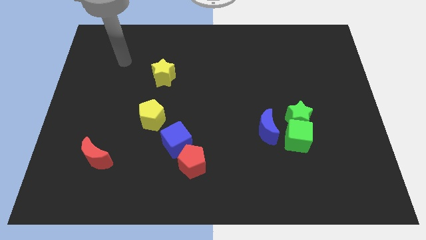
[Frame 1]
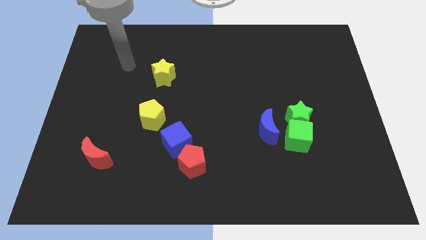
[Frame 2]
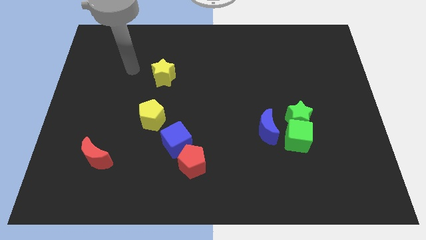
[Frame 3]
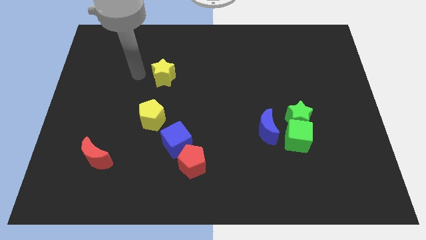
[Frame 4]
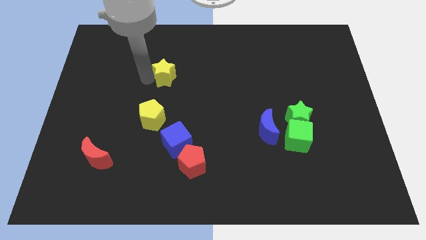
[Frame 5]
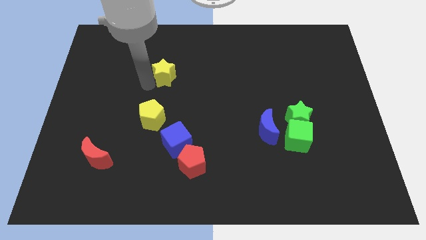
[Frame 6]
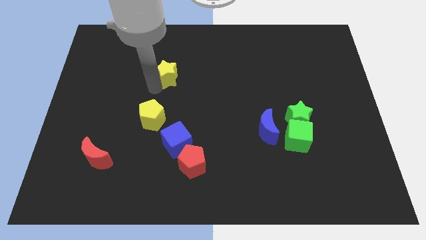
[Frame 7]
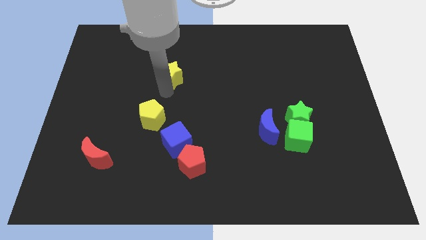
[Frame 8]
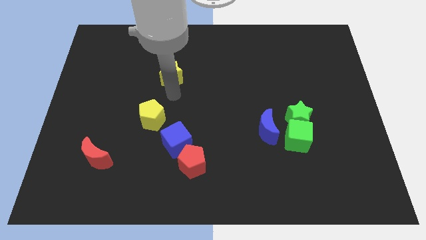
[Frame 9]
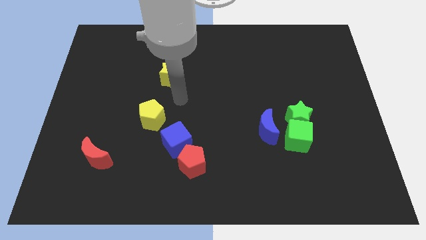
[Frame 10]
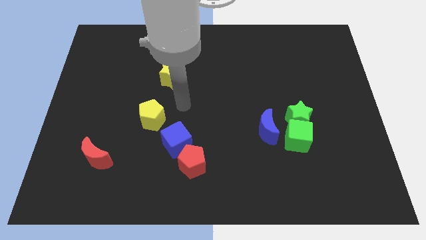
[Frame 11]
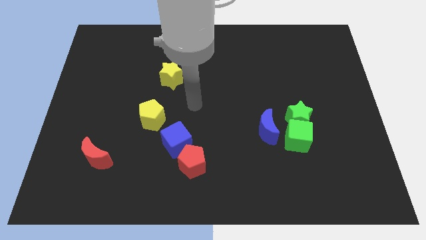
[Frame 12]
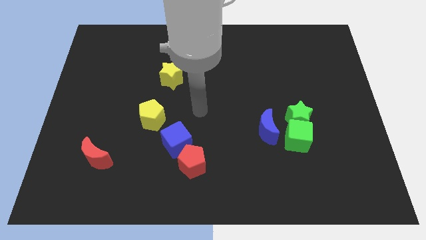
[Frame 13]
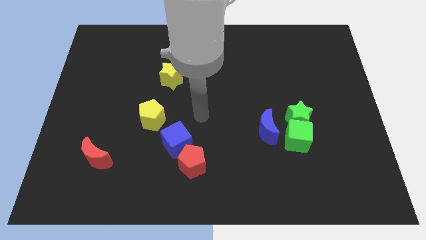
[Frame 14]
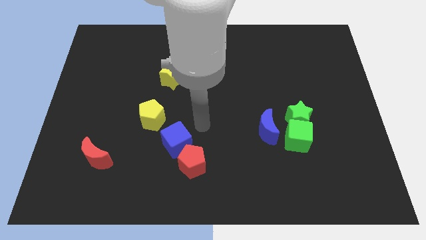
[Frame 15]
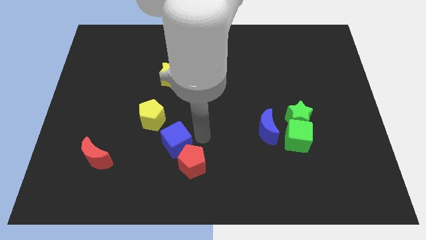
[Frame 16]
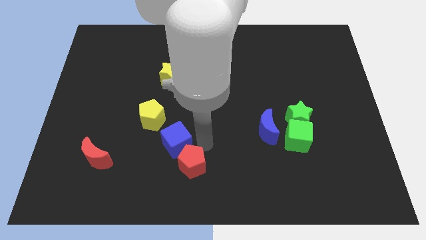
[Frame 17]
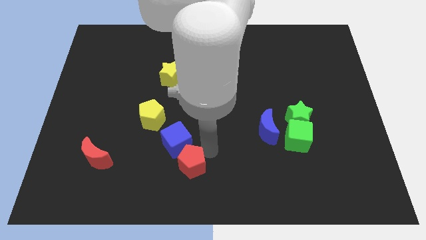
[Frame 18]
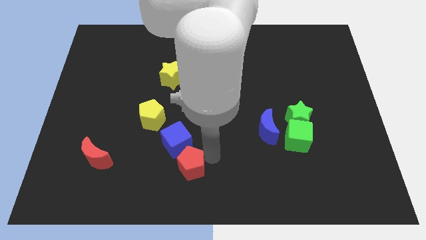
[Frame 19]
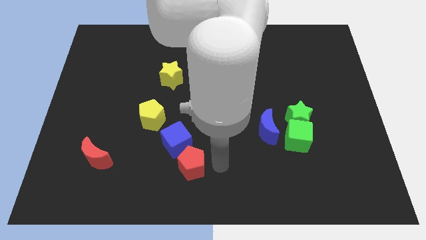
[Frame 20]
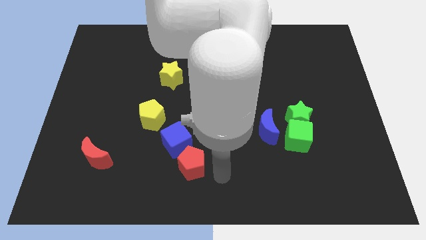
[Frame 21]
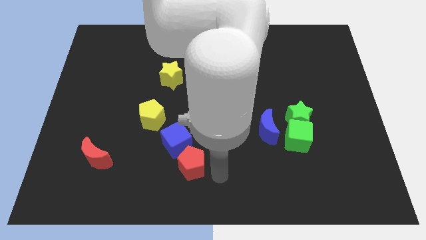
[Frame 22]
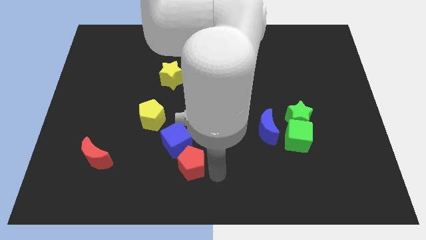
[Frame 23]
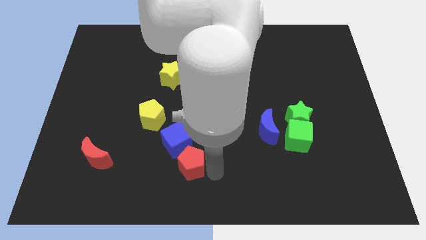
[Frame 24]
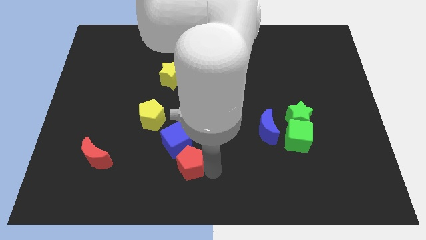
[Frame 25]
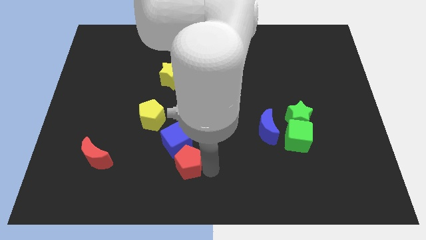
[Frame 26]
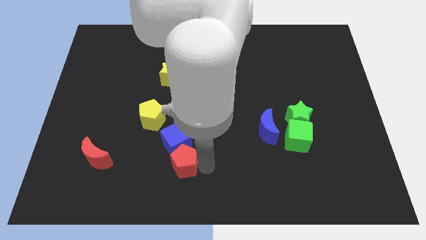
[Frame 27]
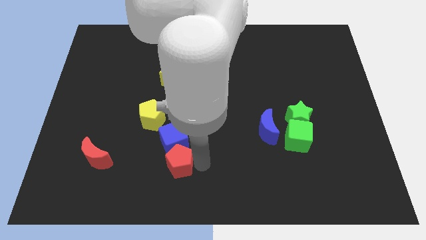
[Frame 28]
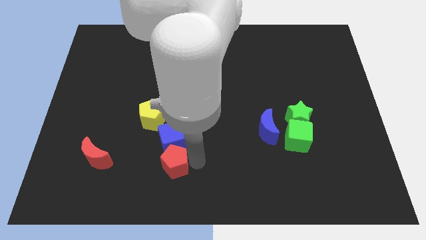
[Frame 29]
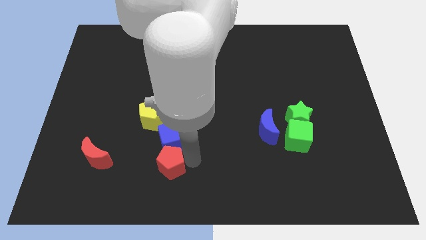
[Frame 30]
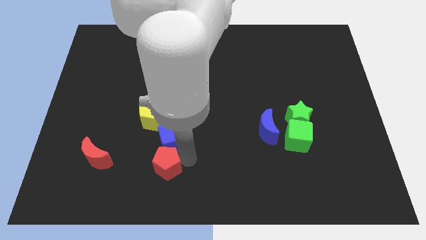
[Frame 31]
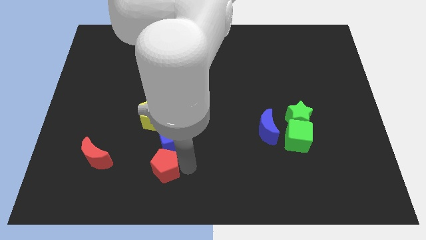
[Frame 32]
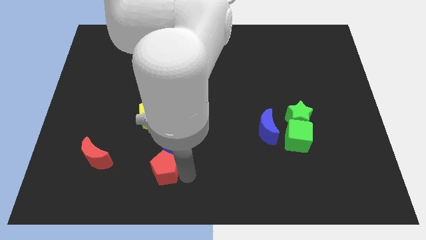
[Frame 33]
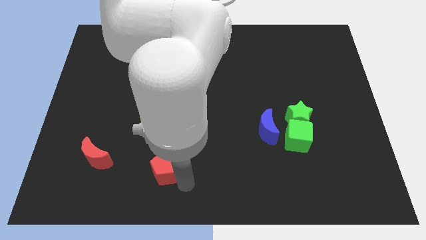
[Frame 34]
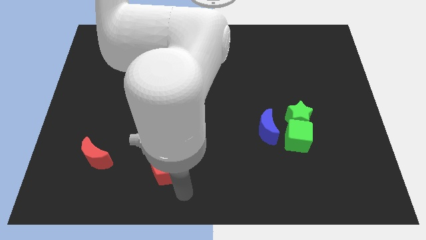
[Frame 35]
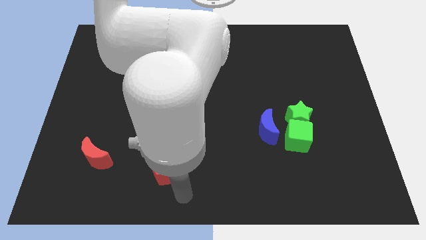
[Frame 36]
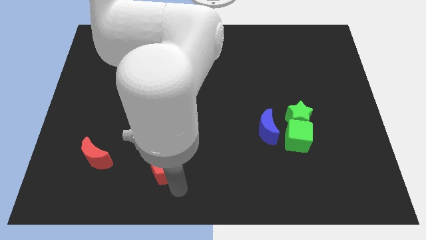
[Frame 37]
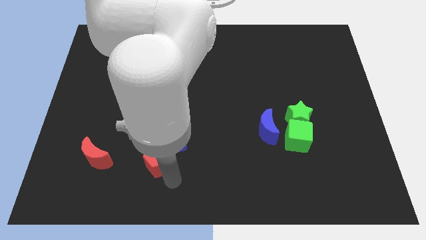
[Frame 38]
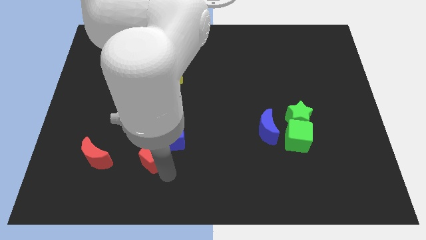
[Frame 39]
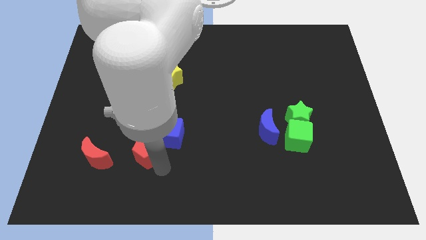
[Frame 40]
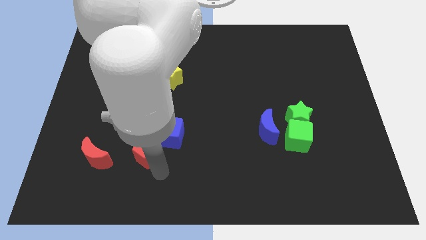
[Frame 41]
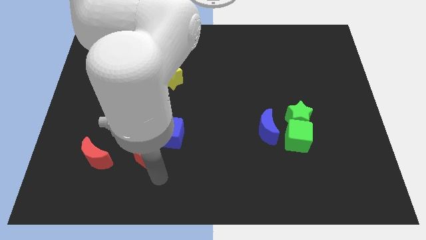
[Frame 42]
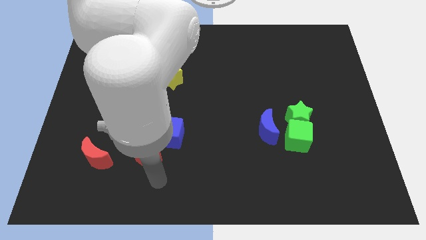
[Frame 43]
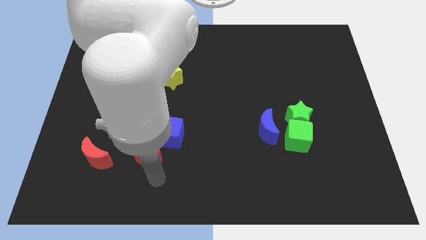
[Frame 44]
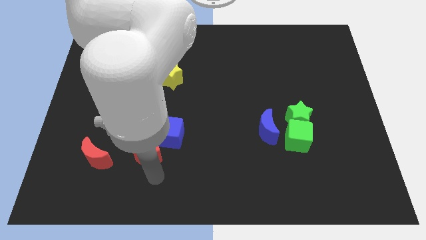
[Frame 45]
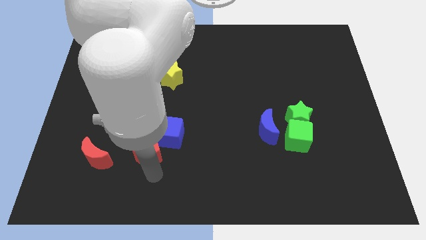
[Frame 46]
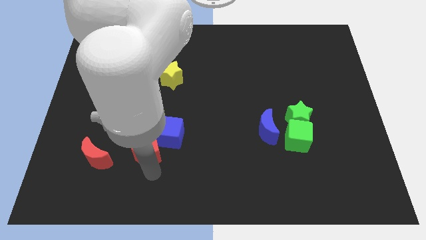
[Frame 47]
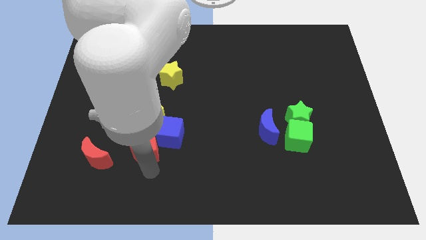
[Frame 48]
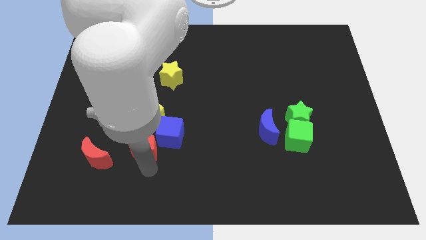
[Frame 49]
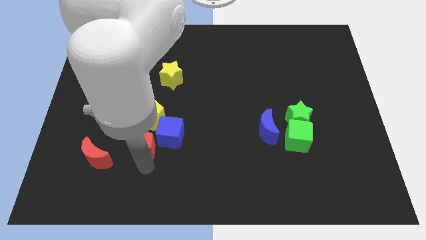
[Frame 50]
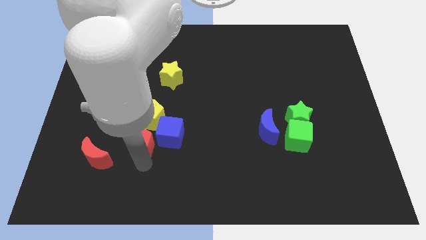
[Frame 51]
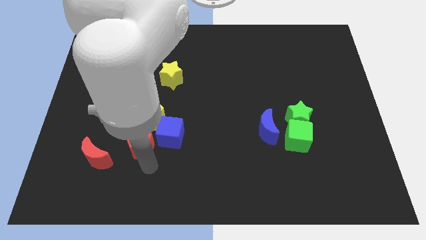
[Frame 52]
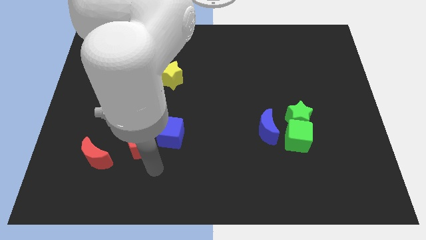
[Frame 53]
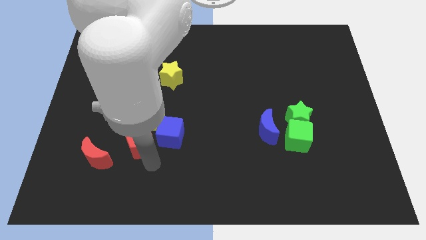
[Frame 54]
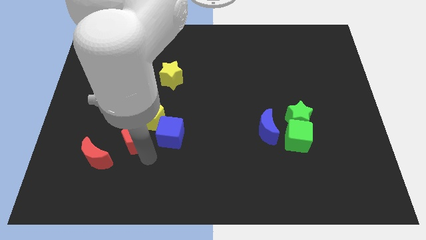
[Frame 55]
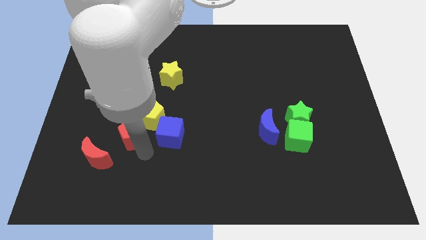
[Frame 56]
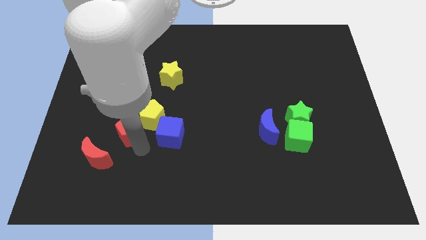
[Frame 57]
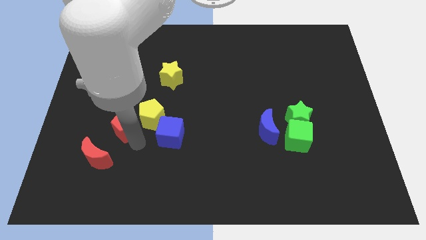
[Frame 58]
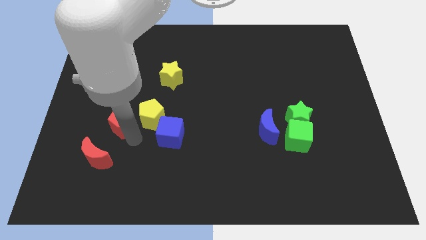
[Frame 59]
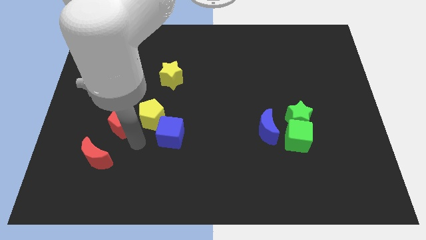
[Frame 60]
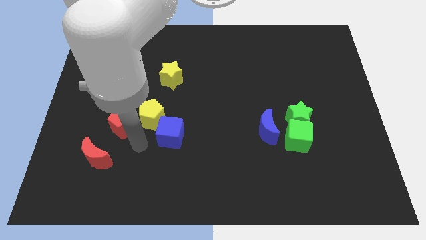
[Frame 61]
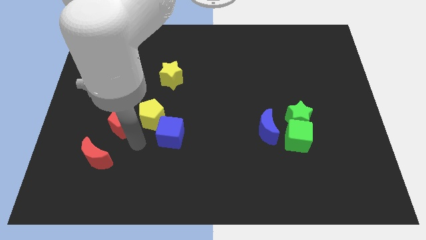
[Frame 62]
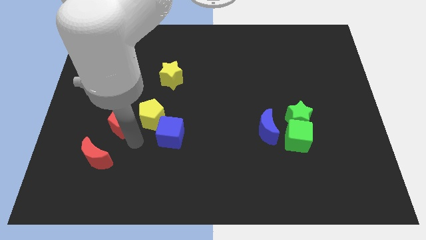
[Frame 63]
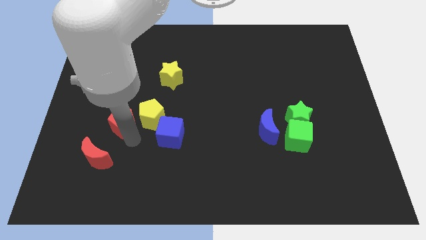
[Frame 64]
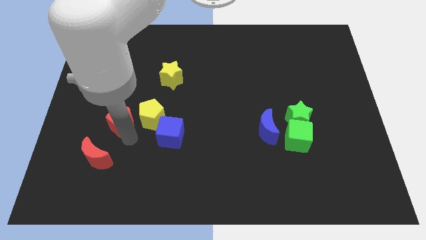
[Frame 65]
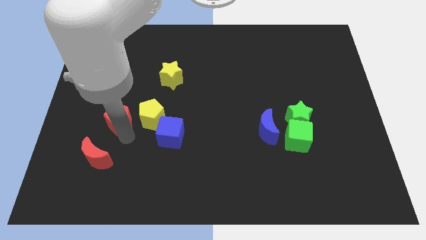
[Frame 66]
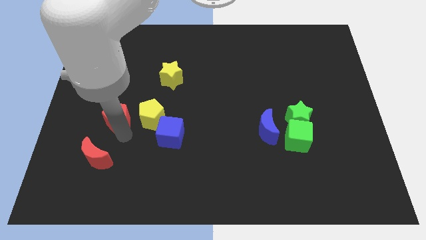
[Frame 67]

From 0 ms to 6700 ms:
move the red pentagon diagonally upwards and left

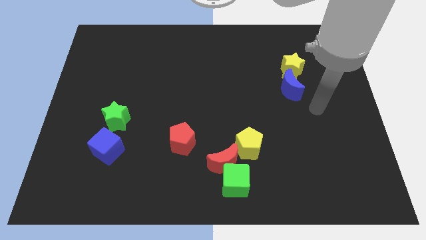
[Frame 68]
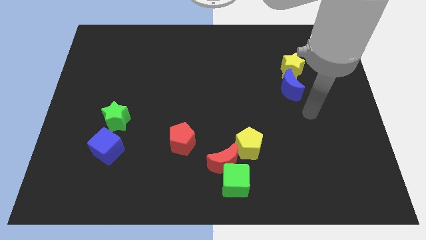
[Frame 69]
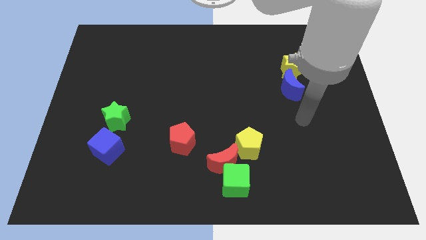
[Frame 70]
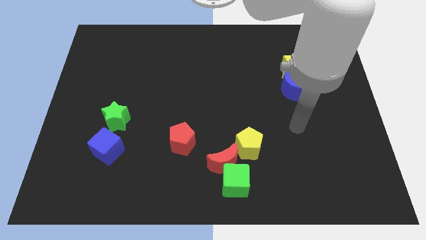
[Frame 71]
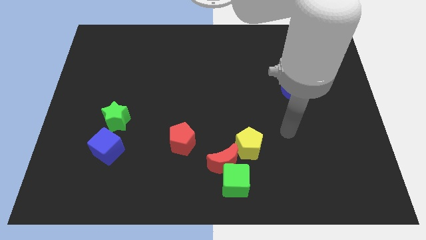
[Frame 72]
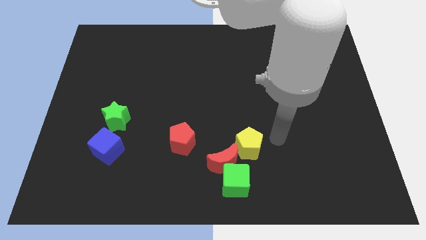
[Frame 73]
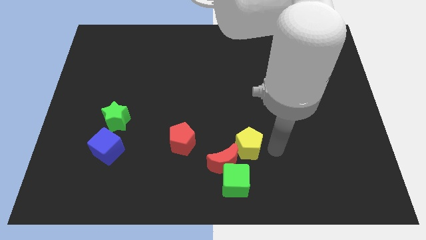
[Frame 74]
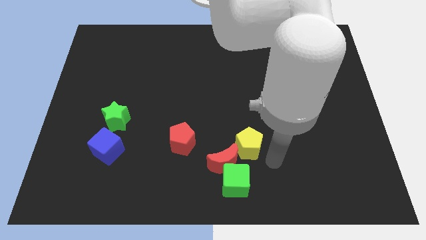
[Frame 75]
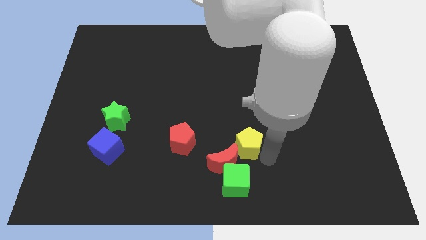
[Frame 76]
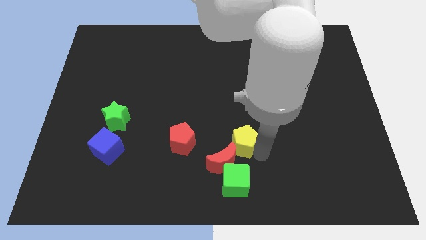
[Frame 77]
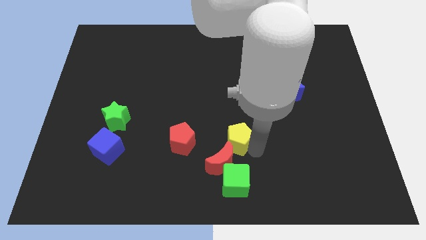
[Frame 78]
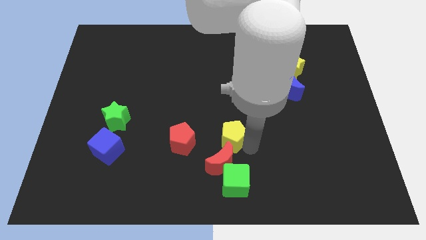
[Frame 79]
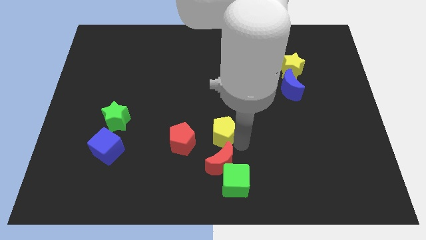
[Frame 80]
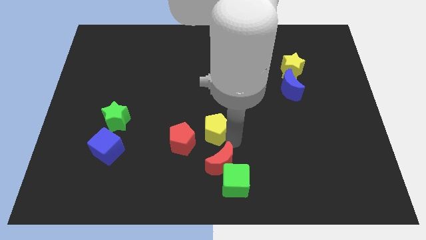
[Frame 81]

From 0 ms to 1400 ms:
push the yellow pentagon diagonally up and to the left a little bit
